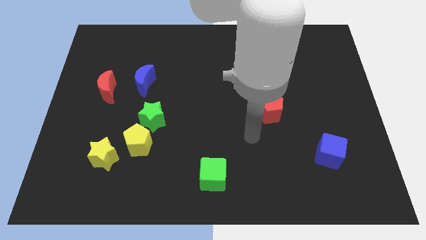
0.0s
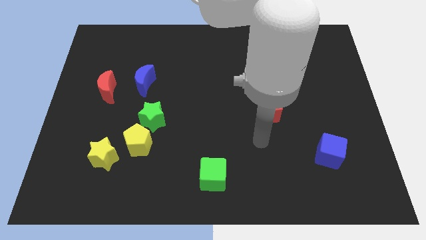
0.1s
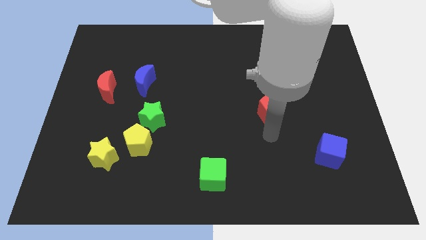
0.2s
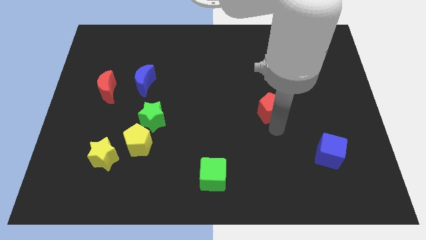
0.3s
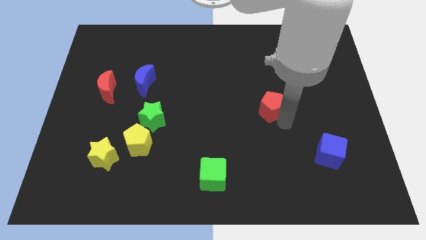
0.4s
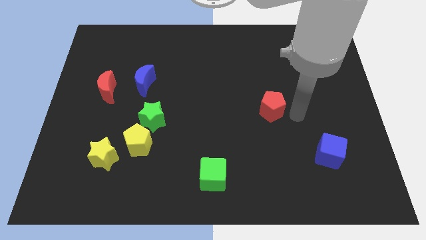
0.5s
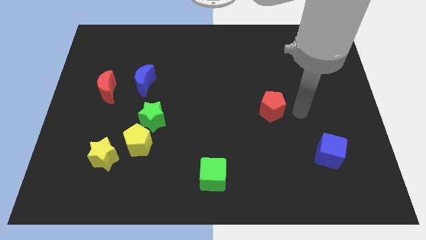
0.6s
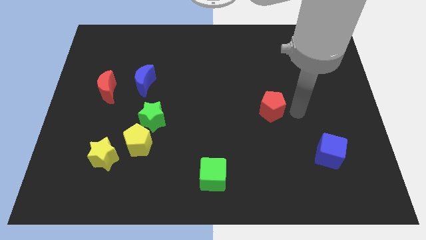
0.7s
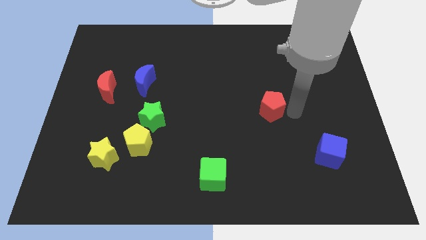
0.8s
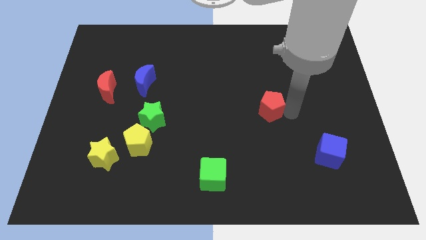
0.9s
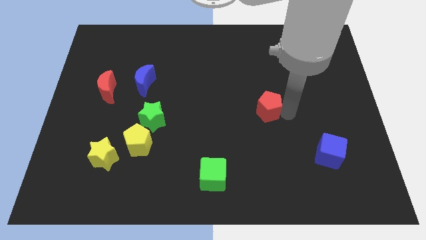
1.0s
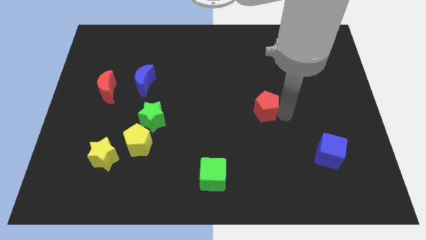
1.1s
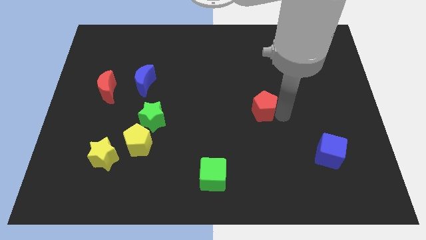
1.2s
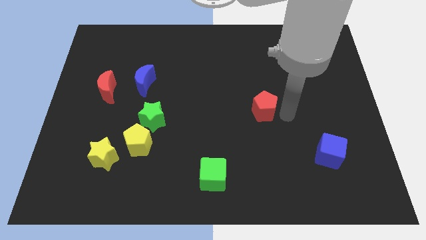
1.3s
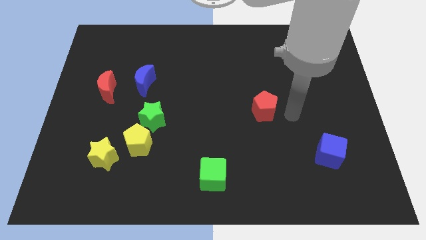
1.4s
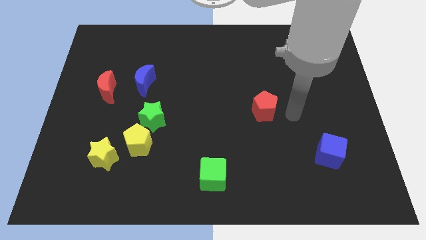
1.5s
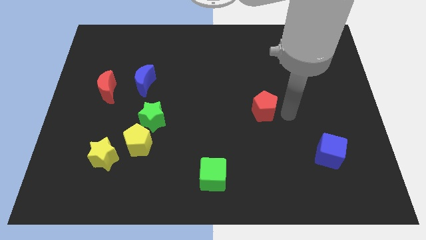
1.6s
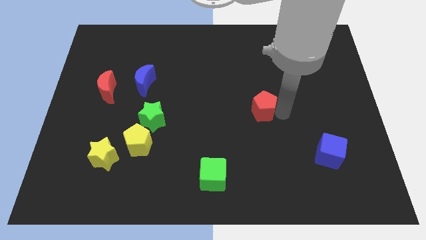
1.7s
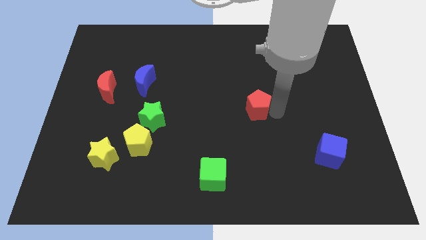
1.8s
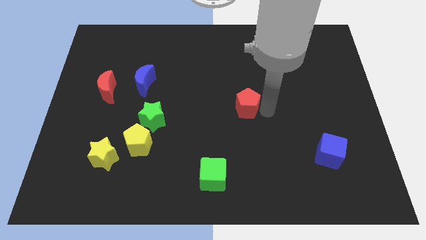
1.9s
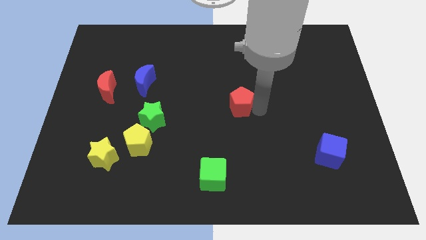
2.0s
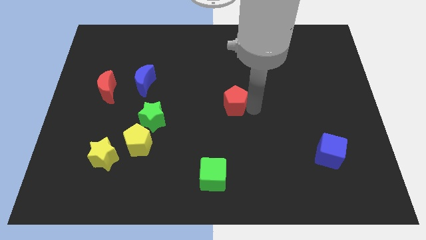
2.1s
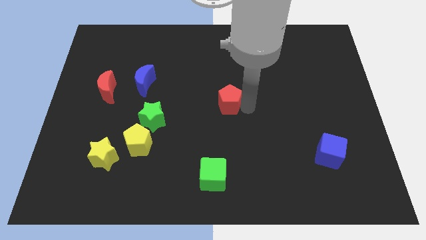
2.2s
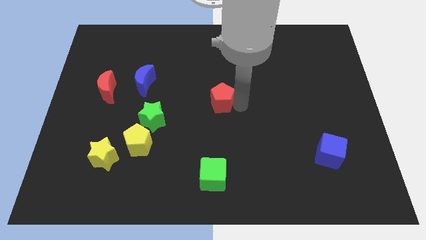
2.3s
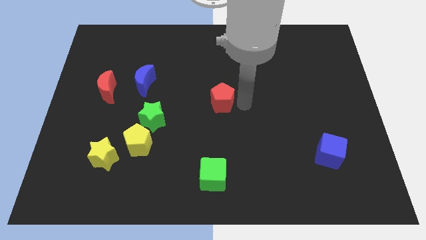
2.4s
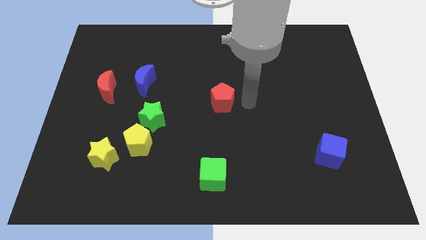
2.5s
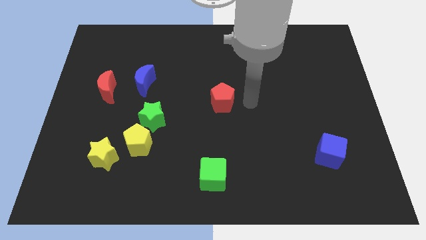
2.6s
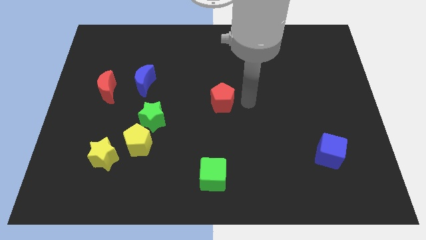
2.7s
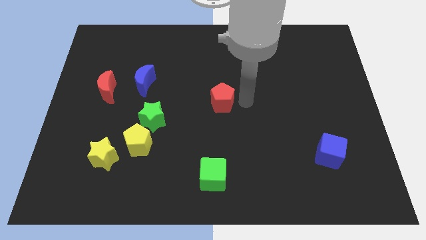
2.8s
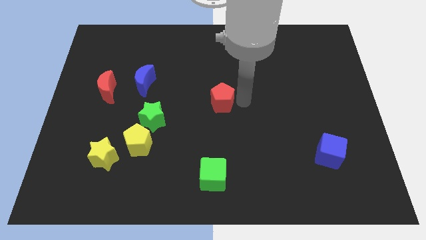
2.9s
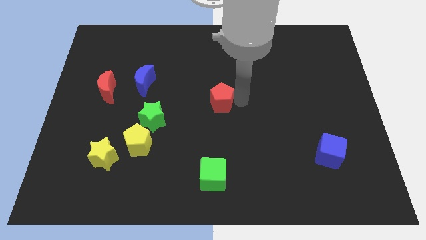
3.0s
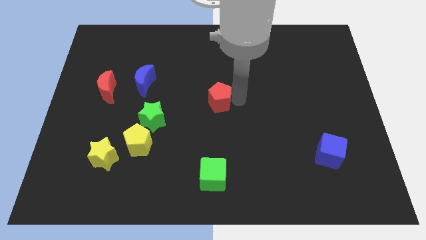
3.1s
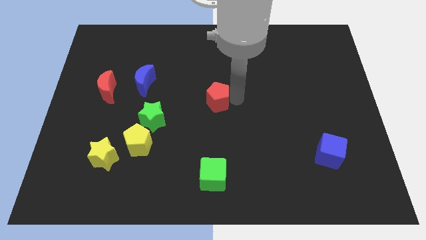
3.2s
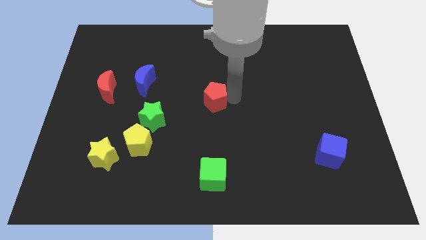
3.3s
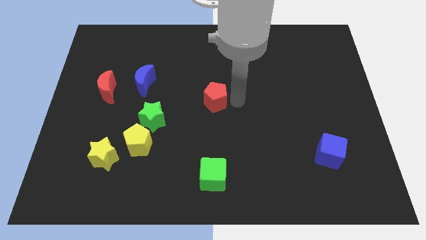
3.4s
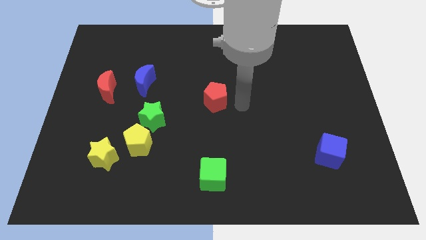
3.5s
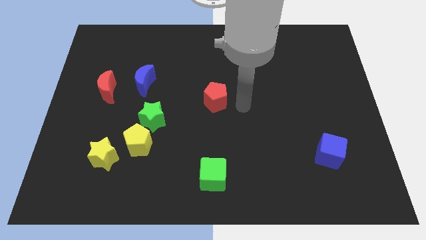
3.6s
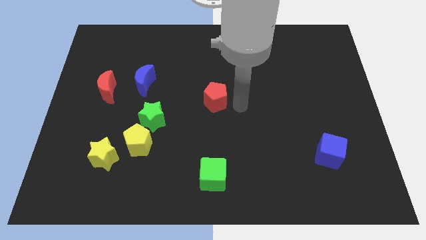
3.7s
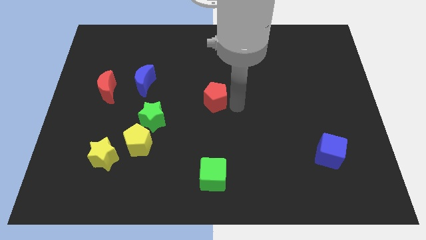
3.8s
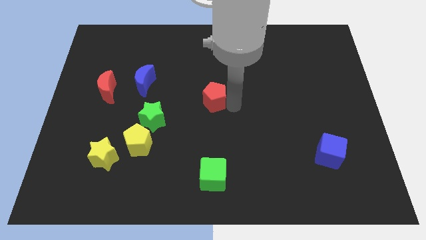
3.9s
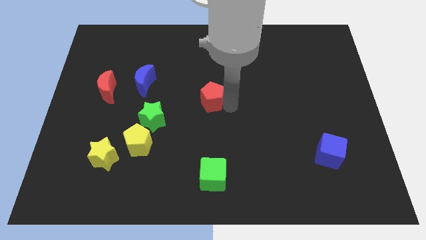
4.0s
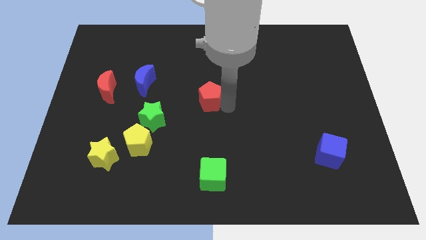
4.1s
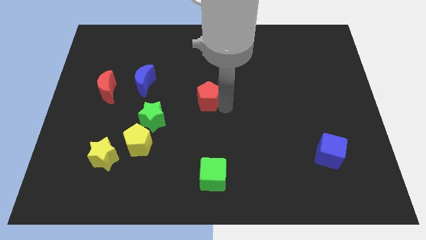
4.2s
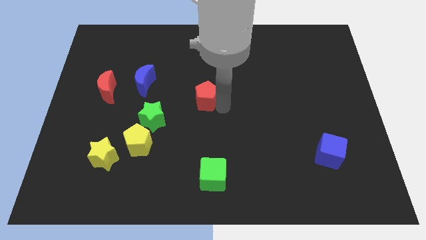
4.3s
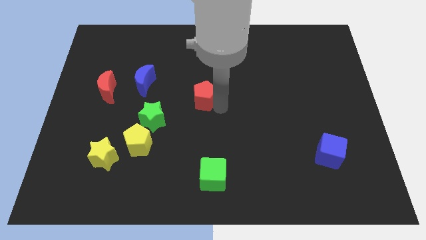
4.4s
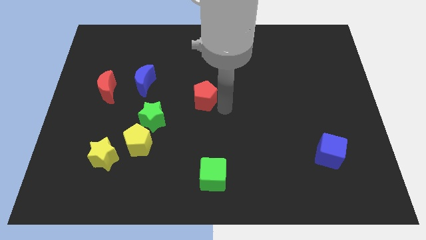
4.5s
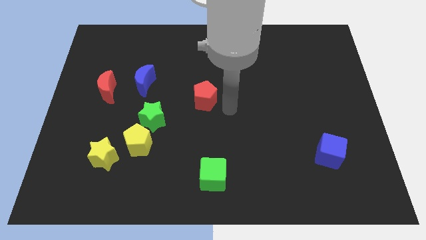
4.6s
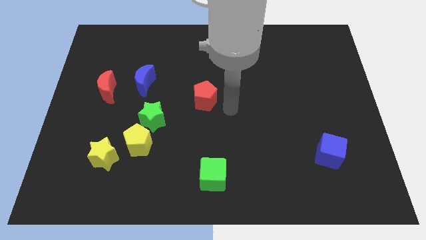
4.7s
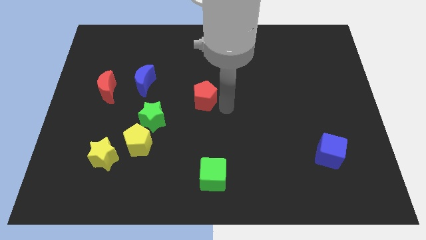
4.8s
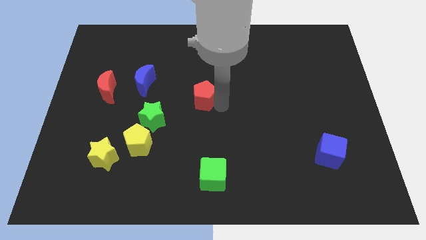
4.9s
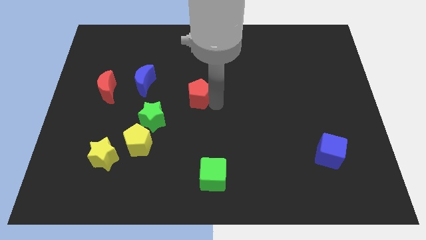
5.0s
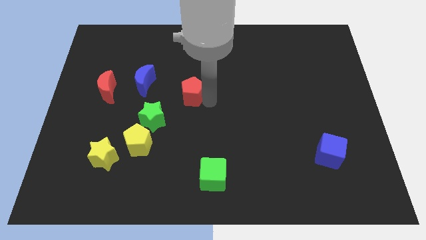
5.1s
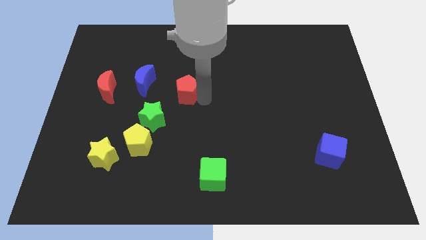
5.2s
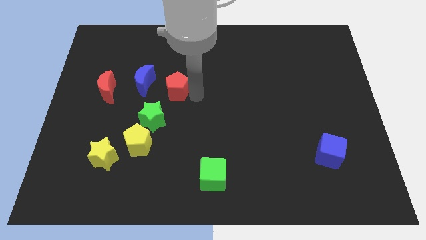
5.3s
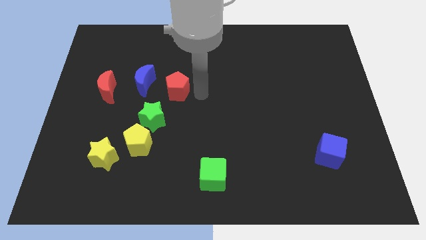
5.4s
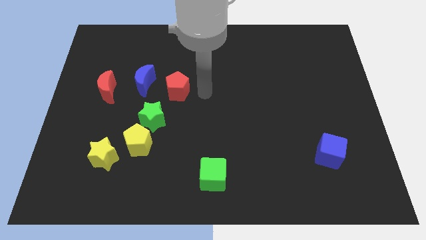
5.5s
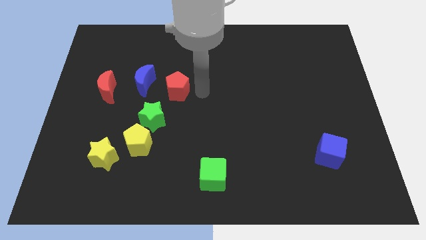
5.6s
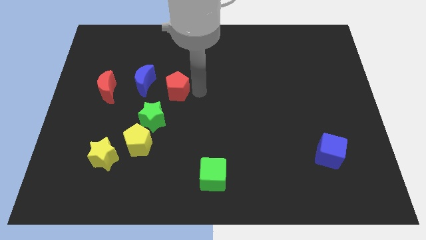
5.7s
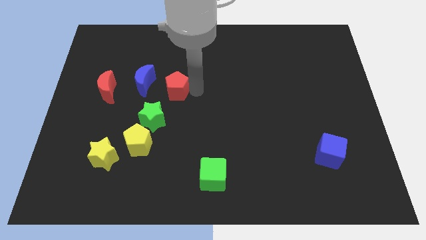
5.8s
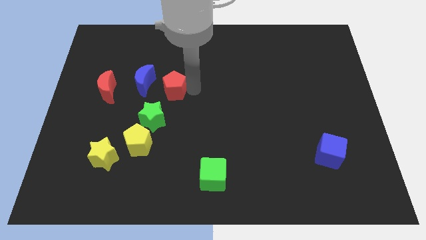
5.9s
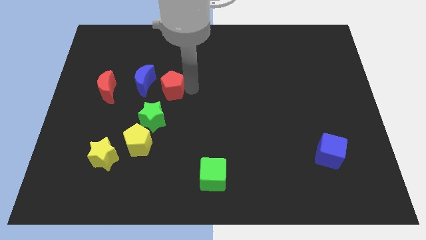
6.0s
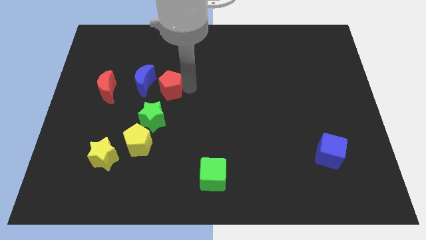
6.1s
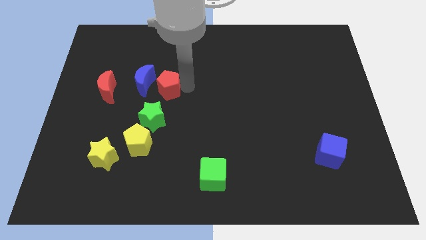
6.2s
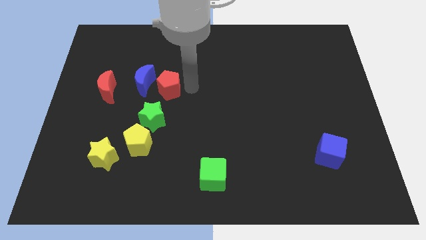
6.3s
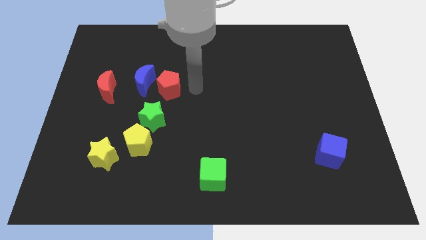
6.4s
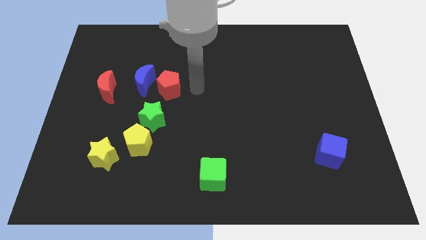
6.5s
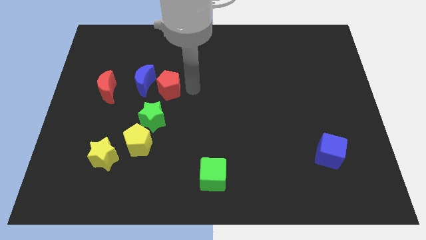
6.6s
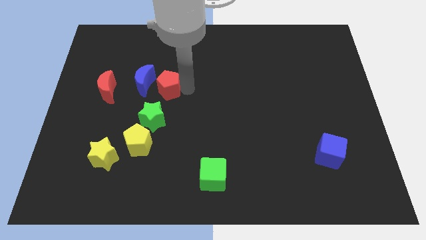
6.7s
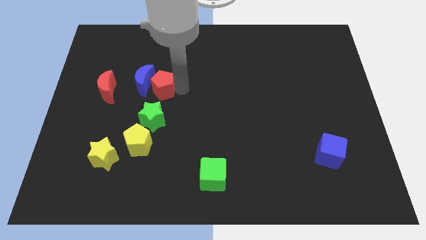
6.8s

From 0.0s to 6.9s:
push the red pentagon to the blue moon
